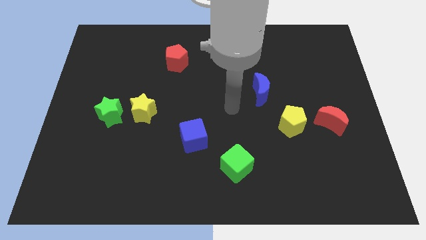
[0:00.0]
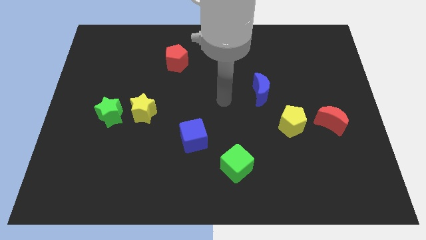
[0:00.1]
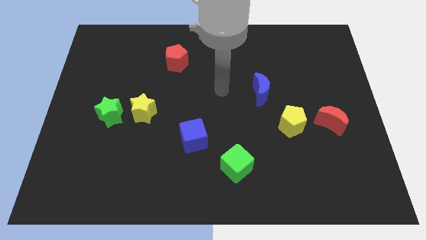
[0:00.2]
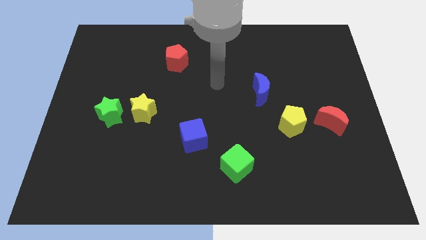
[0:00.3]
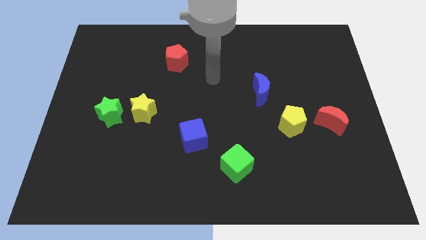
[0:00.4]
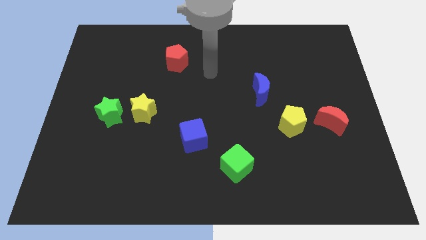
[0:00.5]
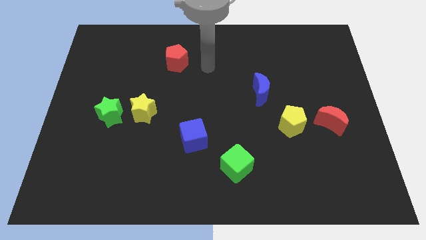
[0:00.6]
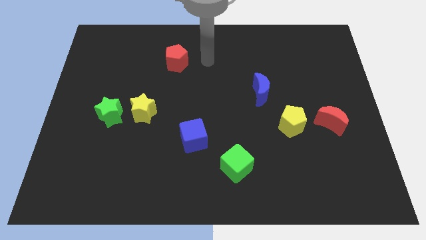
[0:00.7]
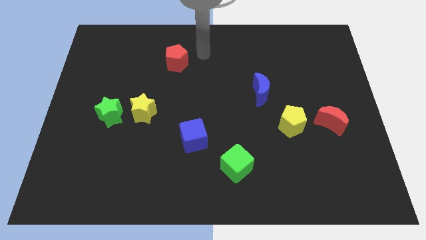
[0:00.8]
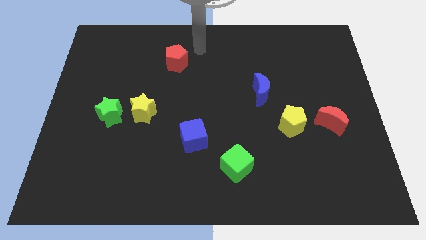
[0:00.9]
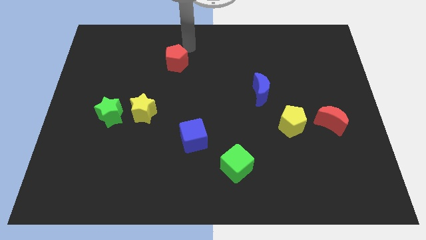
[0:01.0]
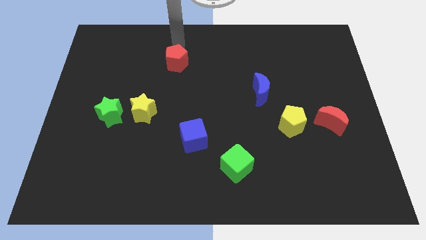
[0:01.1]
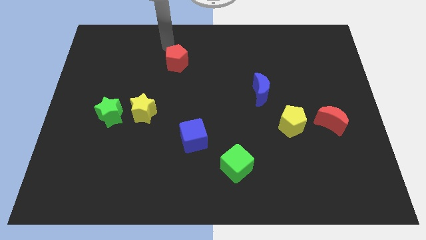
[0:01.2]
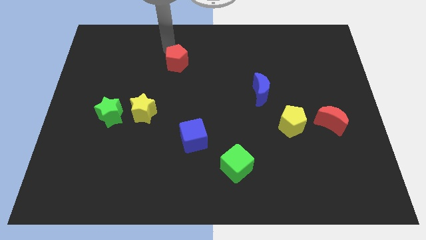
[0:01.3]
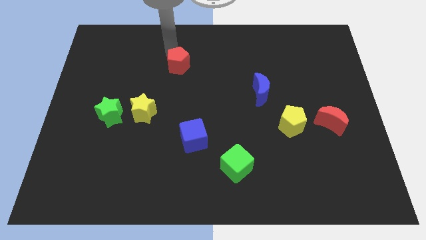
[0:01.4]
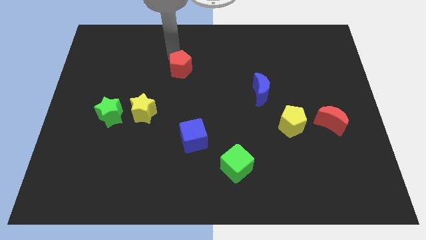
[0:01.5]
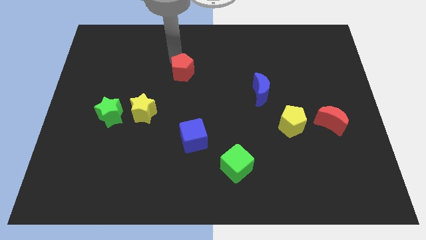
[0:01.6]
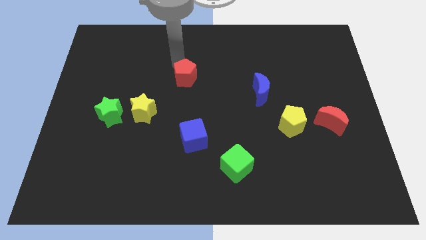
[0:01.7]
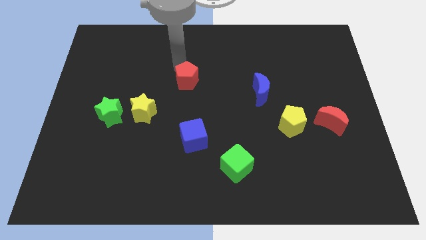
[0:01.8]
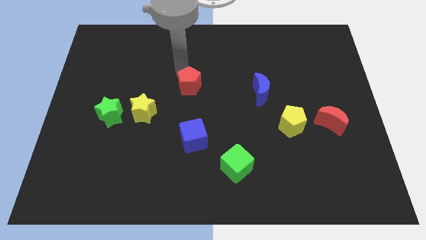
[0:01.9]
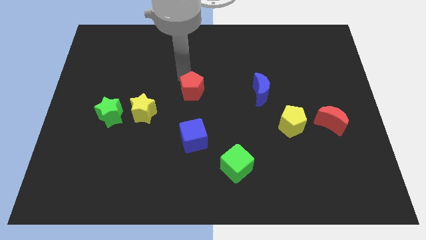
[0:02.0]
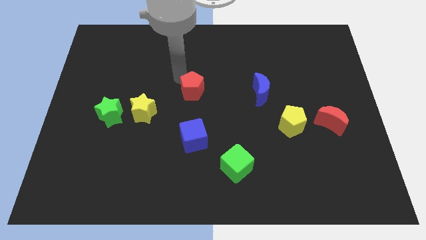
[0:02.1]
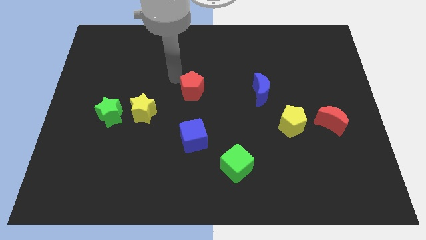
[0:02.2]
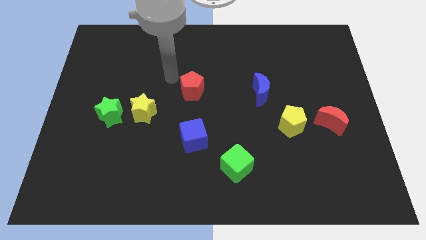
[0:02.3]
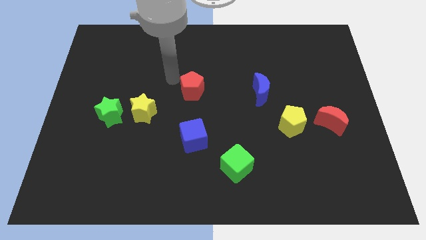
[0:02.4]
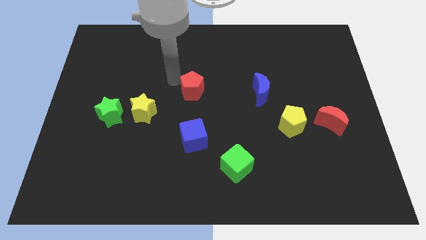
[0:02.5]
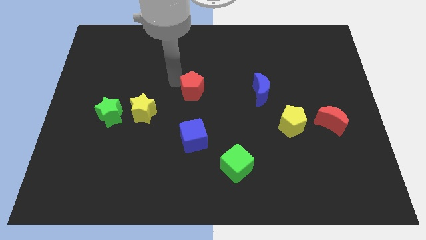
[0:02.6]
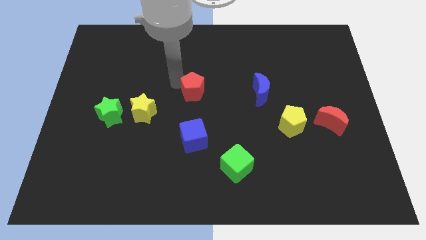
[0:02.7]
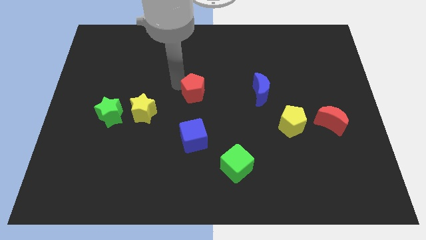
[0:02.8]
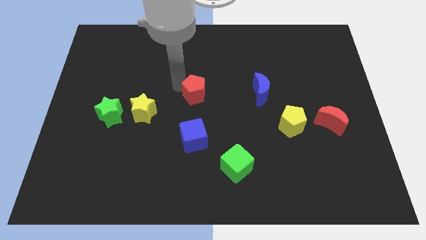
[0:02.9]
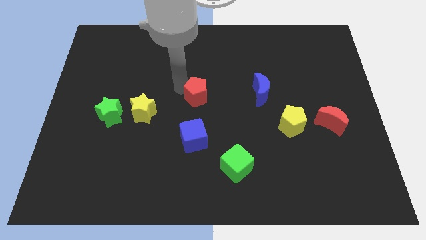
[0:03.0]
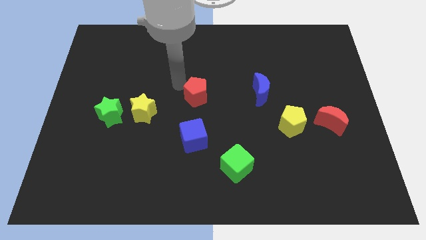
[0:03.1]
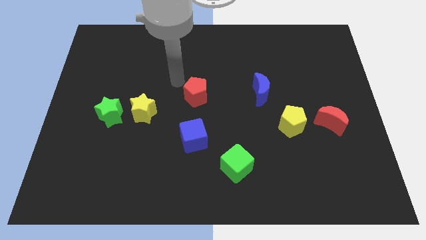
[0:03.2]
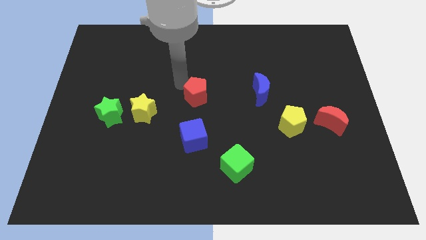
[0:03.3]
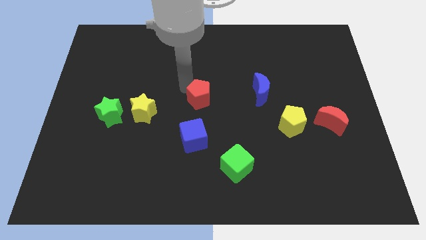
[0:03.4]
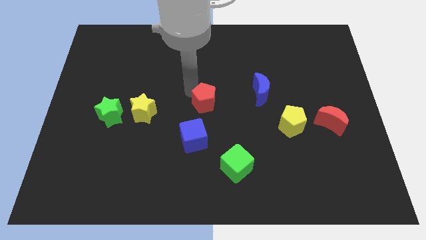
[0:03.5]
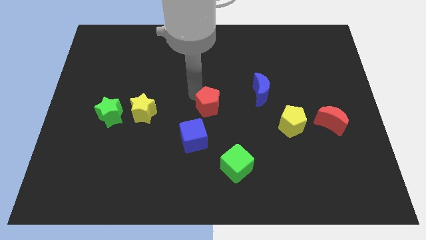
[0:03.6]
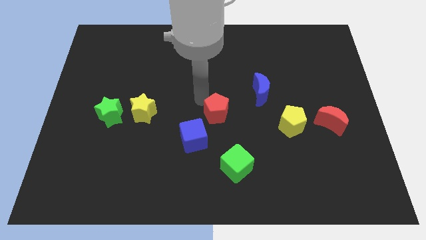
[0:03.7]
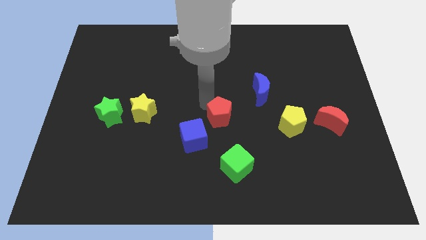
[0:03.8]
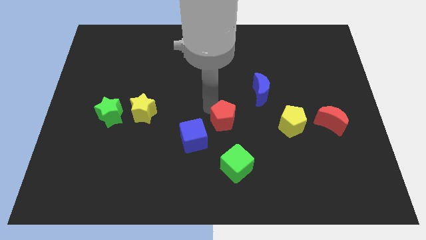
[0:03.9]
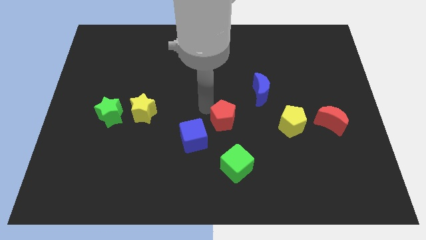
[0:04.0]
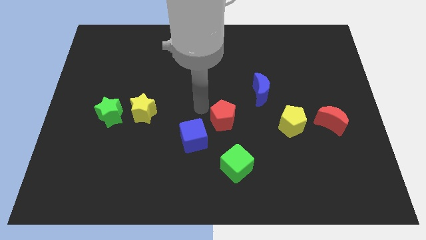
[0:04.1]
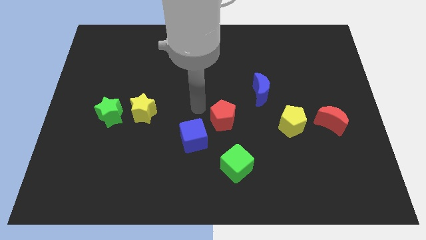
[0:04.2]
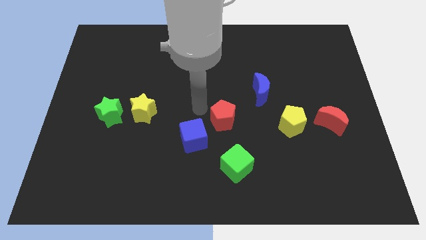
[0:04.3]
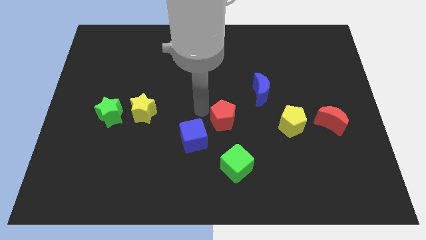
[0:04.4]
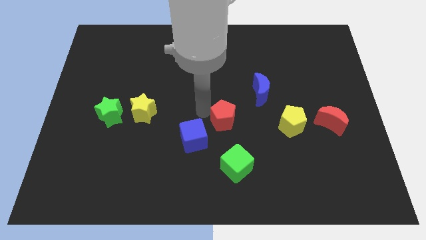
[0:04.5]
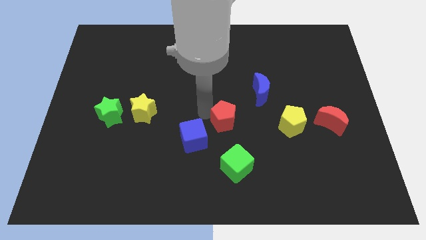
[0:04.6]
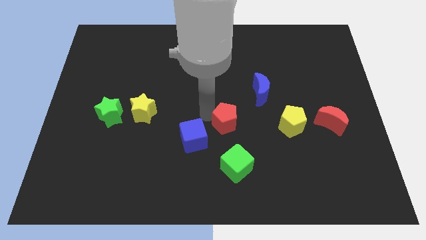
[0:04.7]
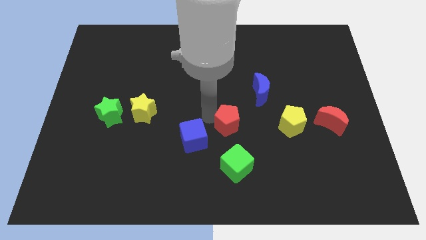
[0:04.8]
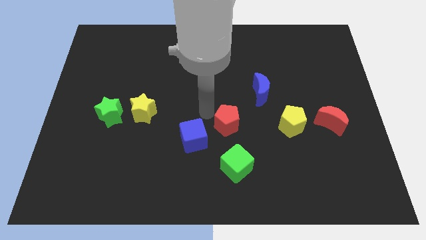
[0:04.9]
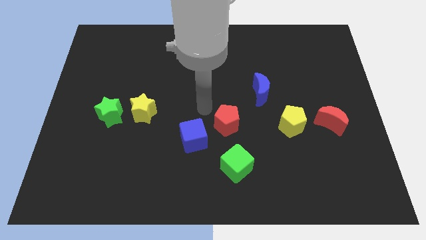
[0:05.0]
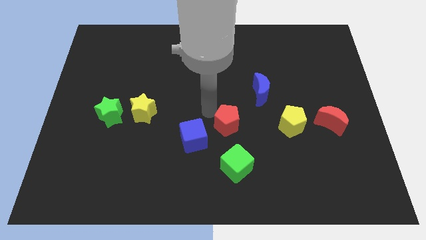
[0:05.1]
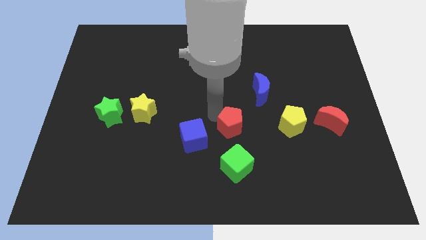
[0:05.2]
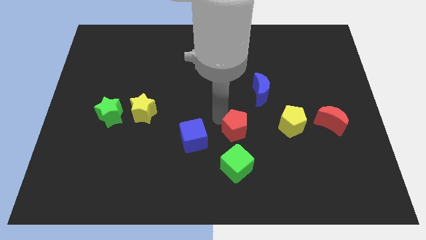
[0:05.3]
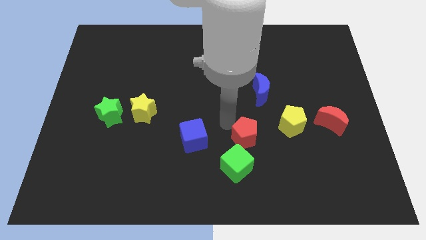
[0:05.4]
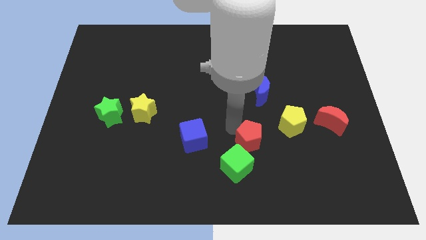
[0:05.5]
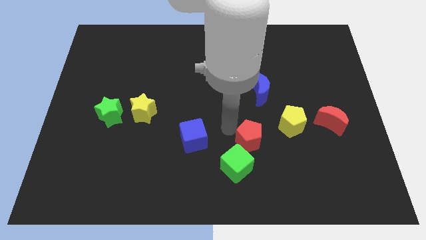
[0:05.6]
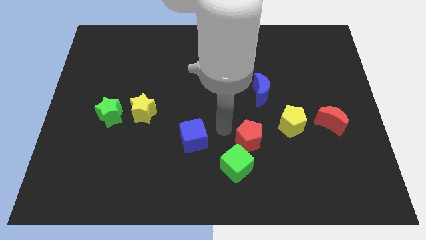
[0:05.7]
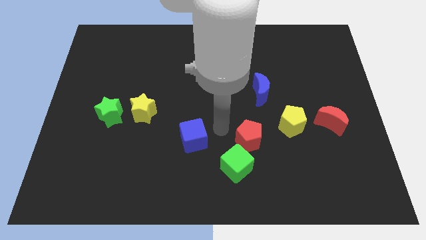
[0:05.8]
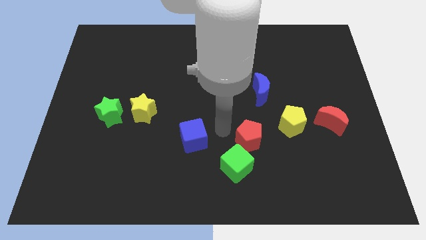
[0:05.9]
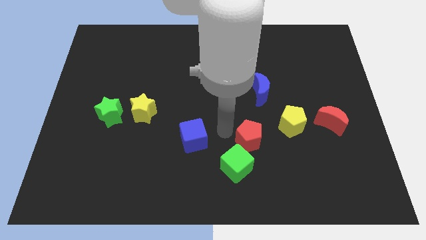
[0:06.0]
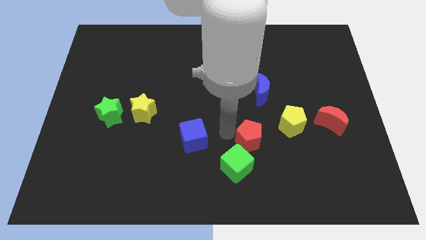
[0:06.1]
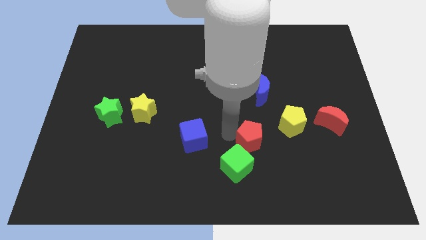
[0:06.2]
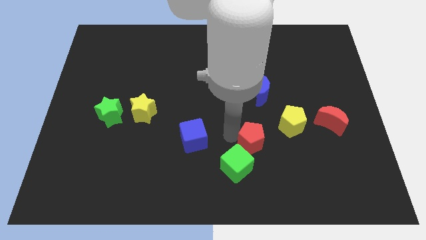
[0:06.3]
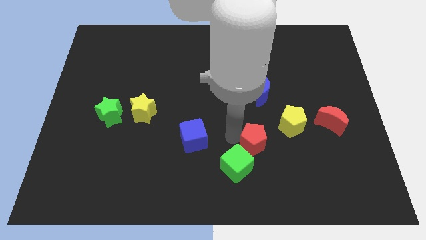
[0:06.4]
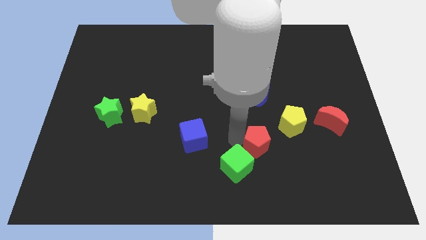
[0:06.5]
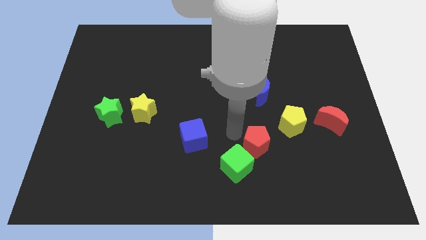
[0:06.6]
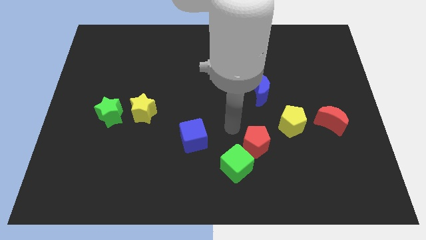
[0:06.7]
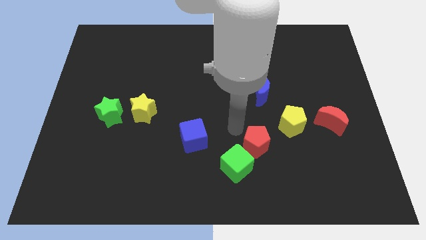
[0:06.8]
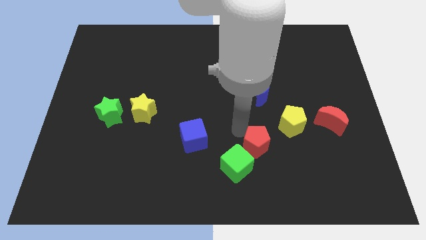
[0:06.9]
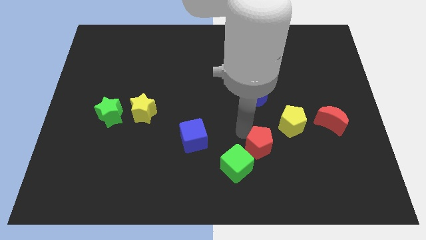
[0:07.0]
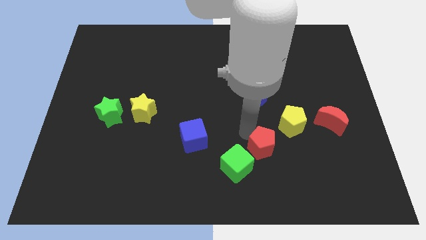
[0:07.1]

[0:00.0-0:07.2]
push the red pentagon just right of the green cube

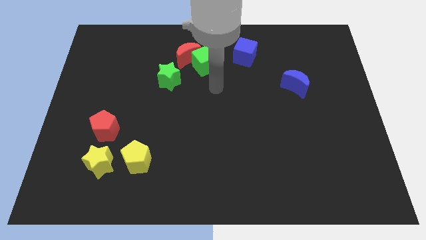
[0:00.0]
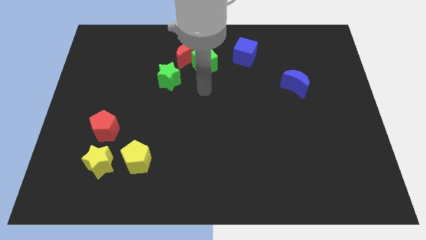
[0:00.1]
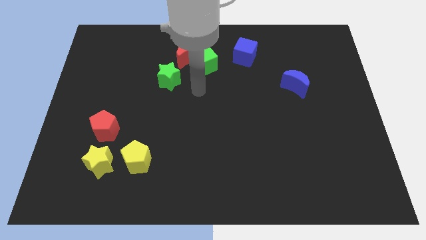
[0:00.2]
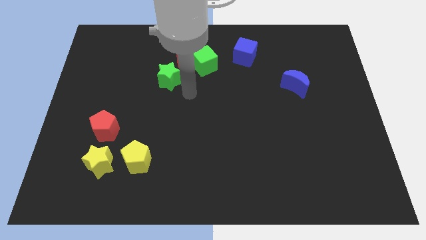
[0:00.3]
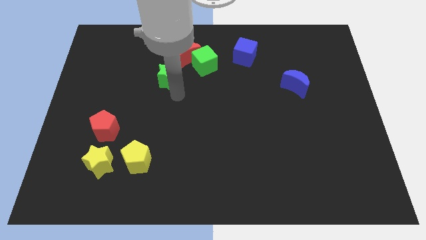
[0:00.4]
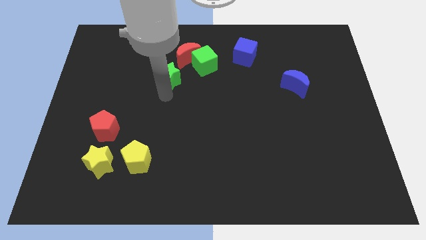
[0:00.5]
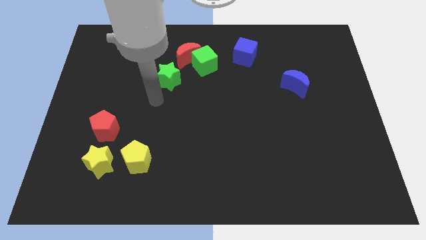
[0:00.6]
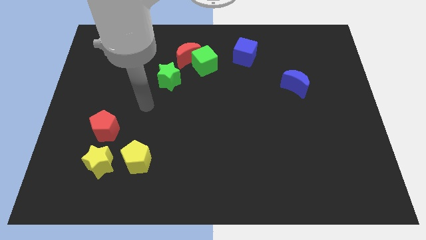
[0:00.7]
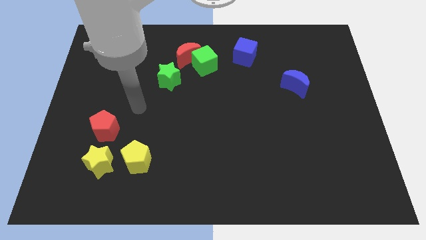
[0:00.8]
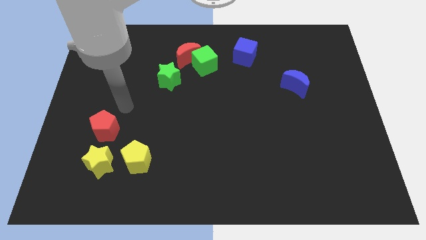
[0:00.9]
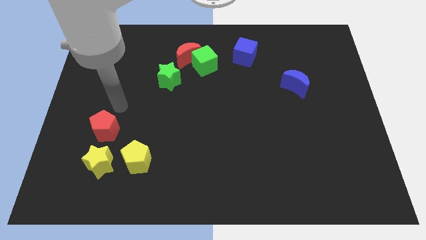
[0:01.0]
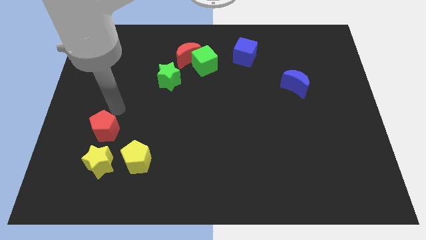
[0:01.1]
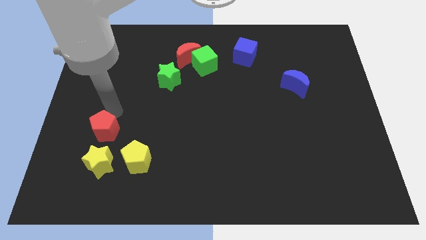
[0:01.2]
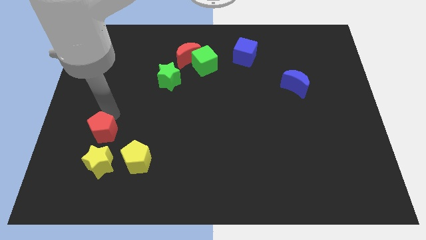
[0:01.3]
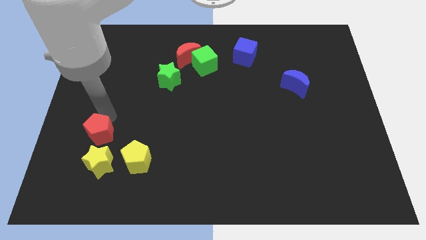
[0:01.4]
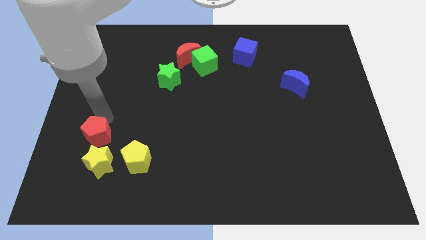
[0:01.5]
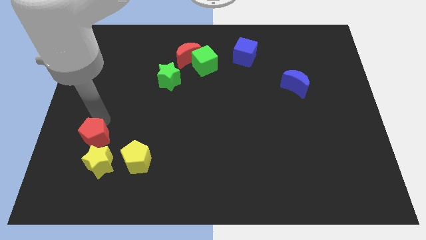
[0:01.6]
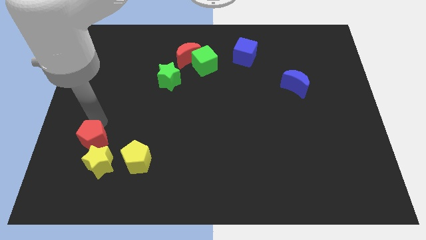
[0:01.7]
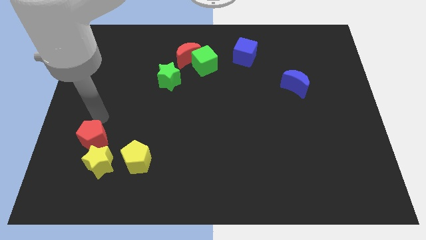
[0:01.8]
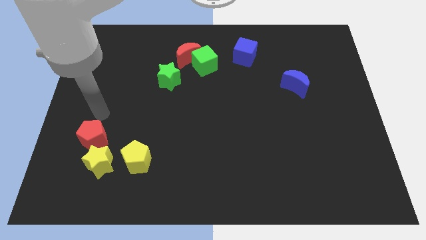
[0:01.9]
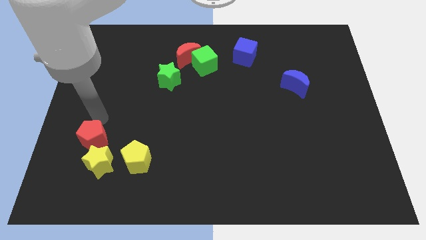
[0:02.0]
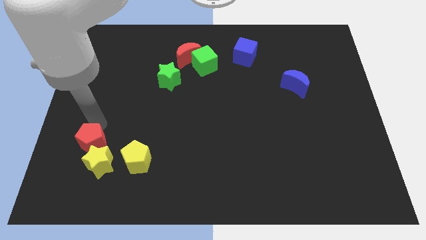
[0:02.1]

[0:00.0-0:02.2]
slide the red pentagon to the left of the yellow pentagon
